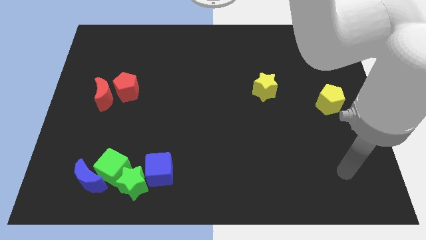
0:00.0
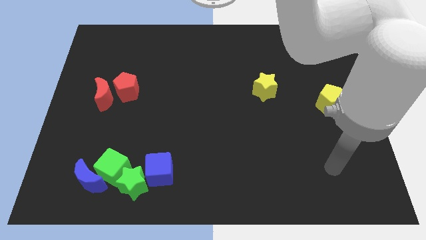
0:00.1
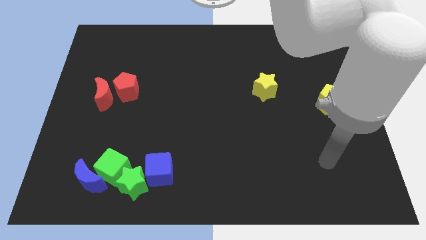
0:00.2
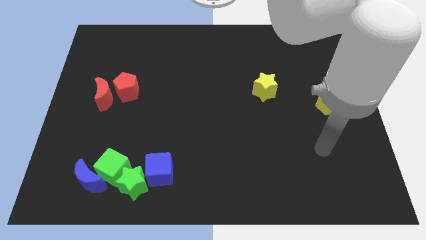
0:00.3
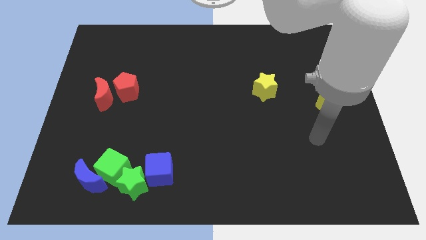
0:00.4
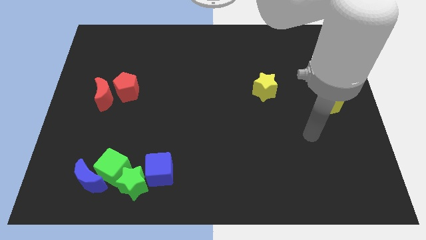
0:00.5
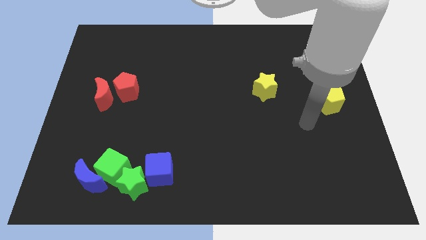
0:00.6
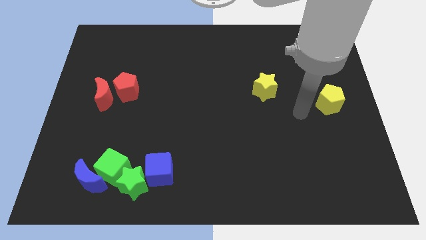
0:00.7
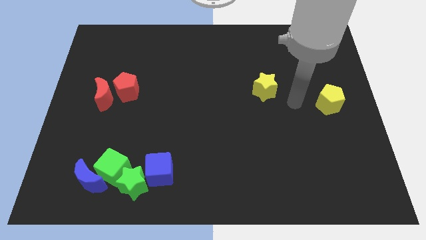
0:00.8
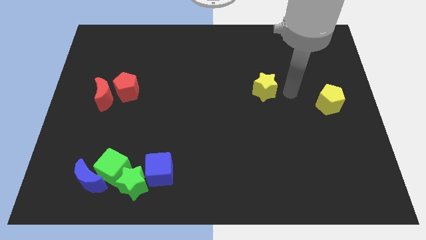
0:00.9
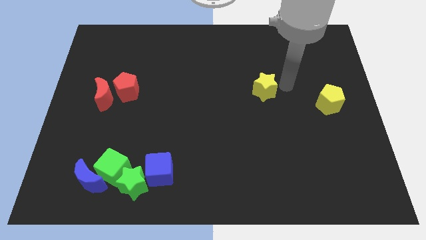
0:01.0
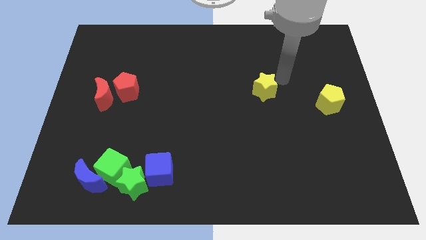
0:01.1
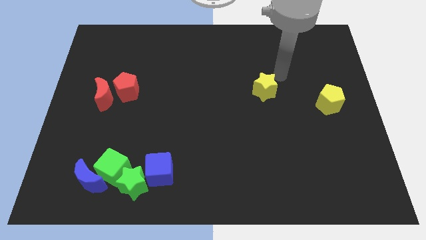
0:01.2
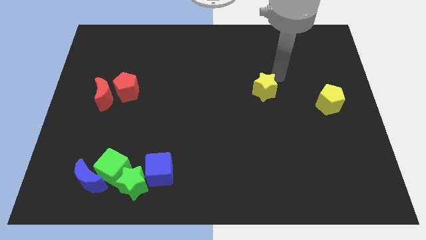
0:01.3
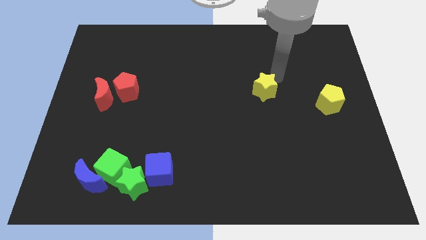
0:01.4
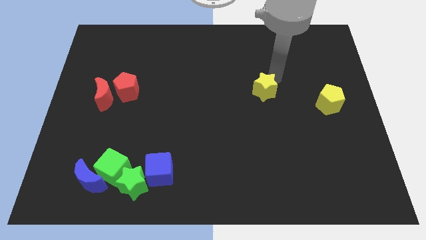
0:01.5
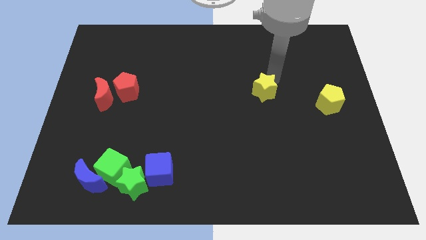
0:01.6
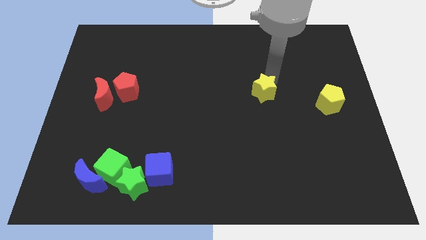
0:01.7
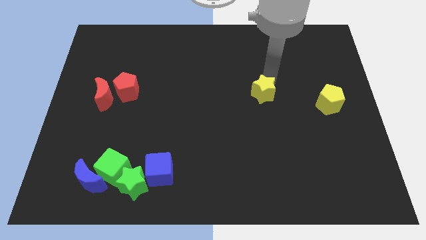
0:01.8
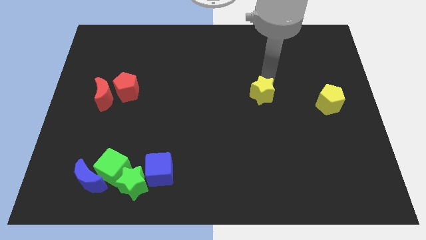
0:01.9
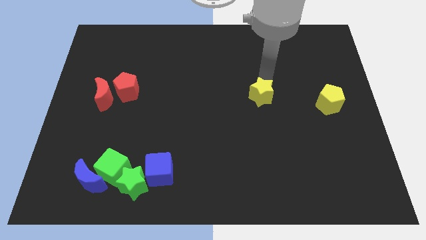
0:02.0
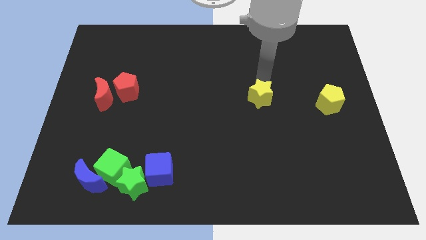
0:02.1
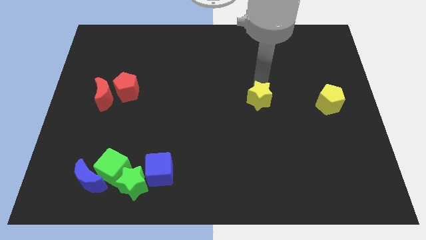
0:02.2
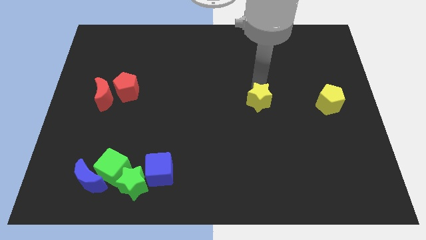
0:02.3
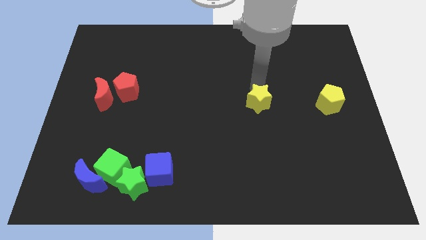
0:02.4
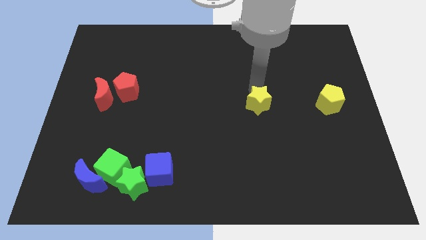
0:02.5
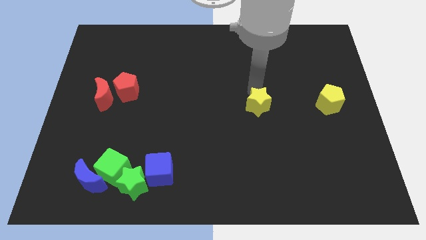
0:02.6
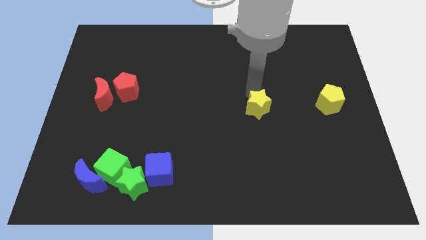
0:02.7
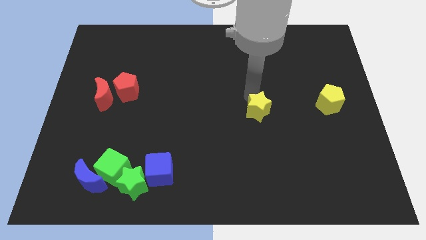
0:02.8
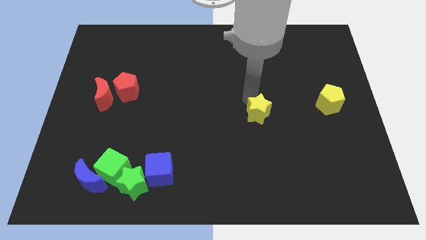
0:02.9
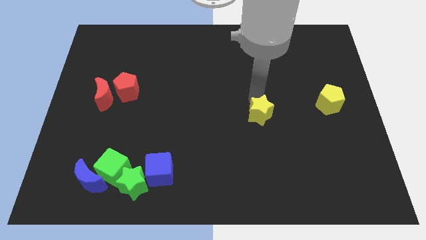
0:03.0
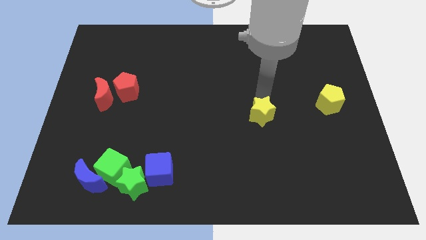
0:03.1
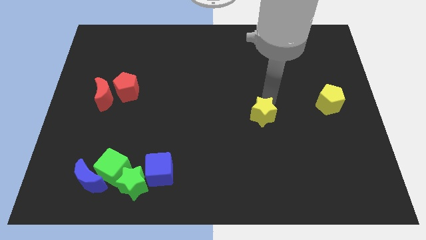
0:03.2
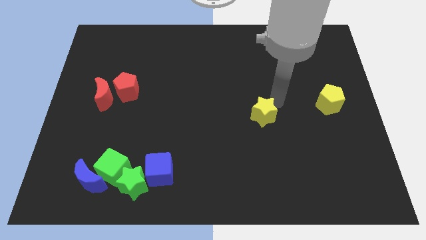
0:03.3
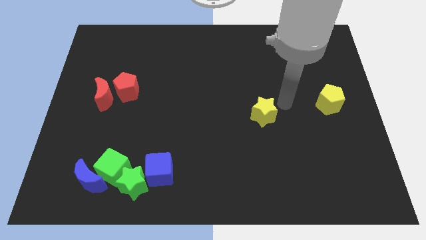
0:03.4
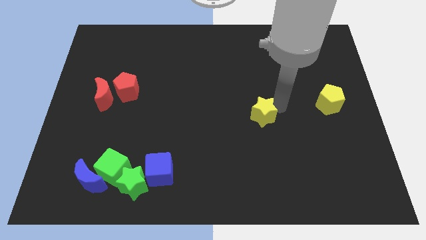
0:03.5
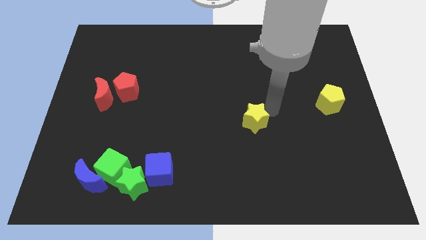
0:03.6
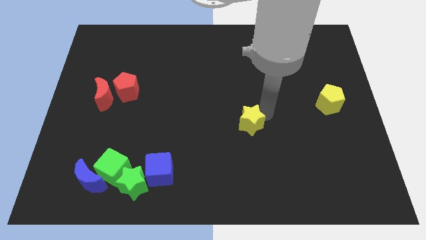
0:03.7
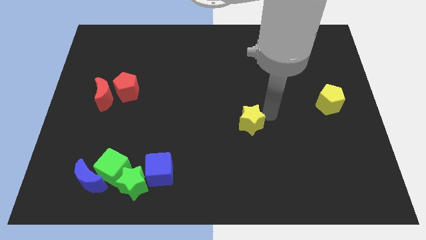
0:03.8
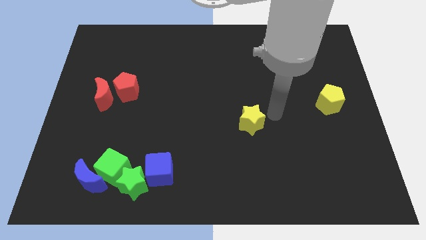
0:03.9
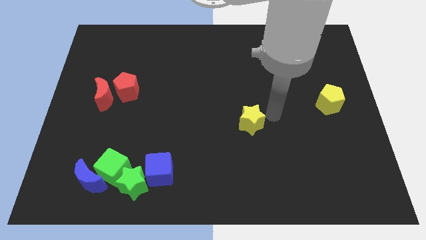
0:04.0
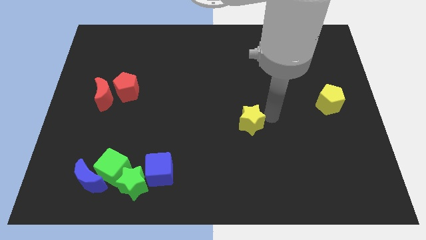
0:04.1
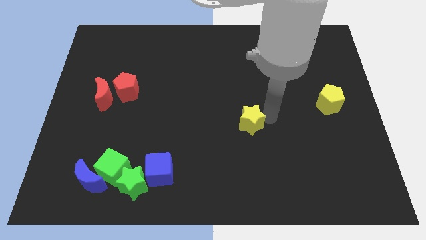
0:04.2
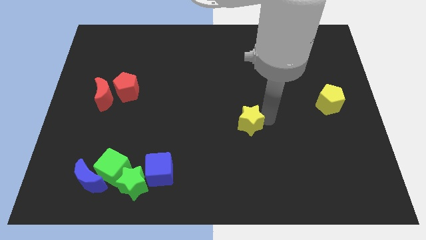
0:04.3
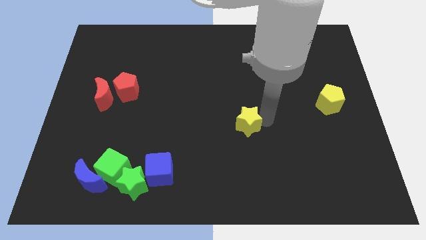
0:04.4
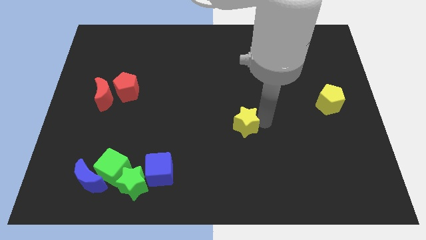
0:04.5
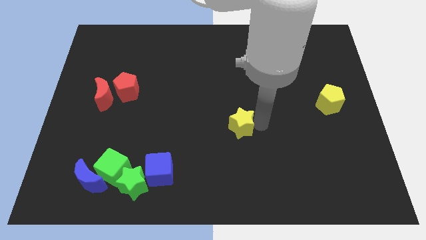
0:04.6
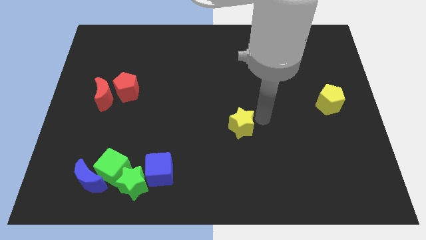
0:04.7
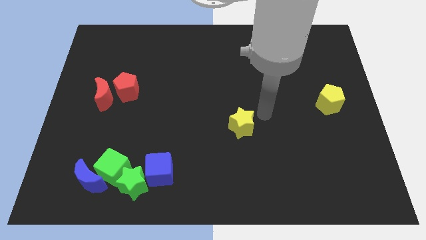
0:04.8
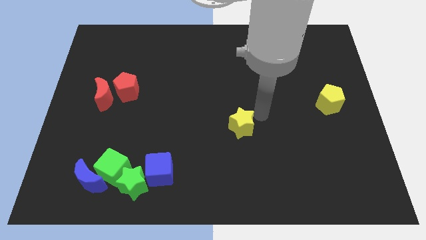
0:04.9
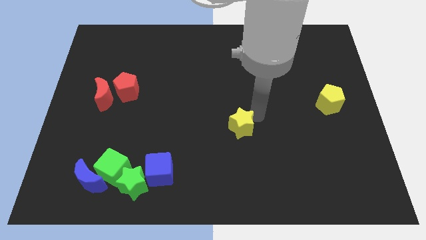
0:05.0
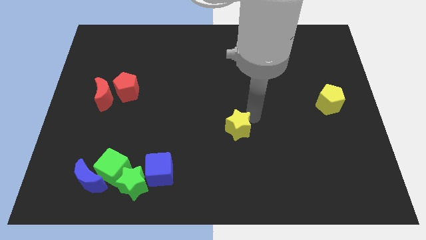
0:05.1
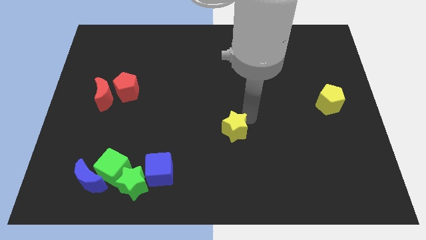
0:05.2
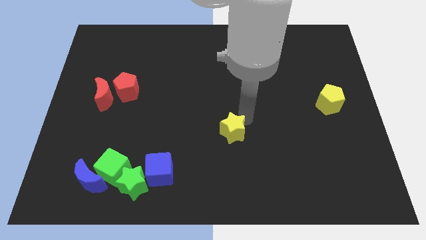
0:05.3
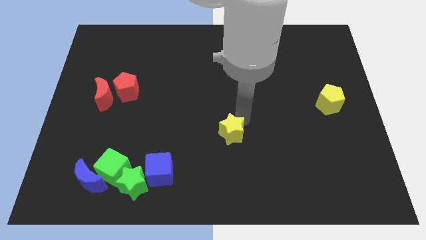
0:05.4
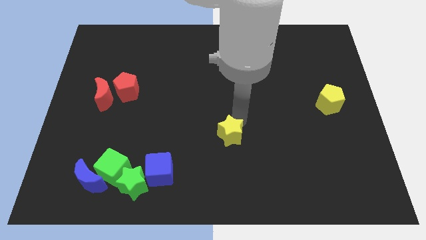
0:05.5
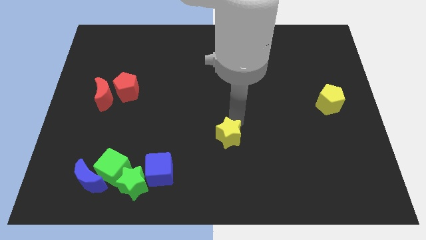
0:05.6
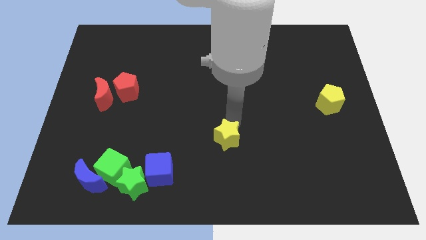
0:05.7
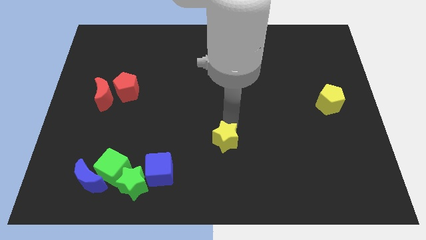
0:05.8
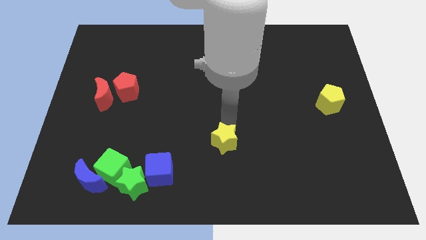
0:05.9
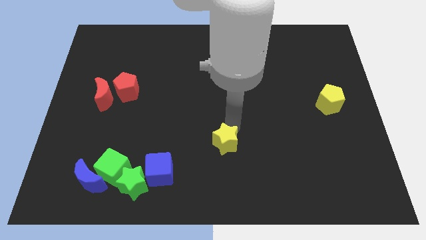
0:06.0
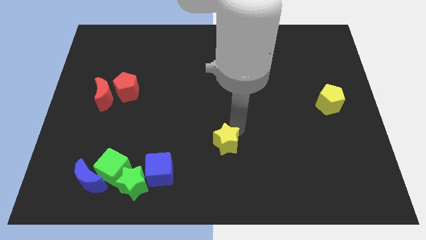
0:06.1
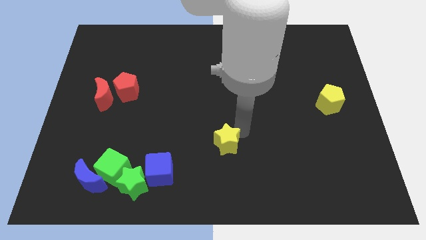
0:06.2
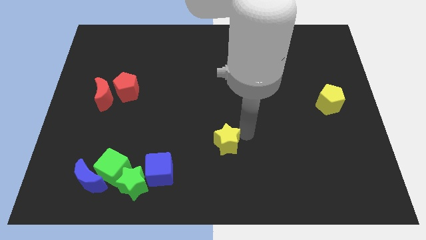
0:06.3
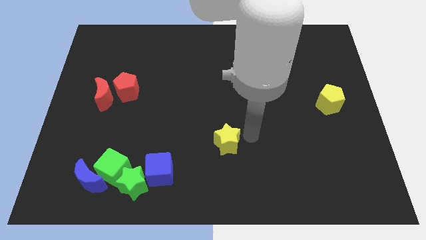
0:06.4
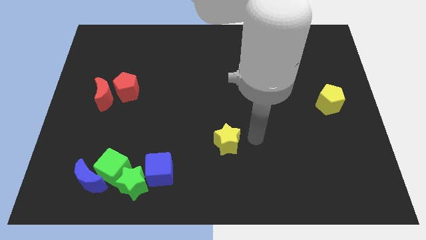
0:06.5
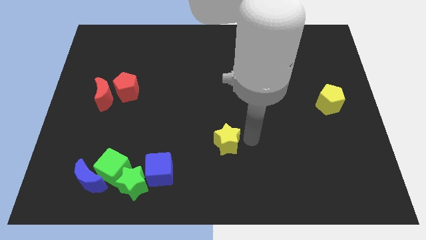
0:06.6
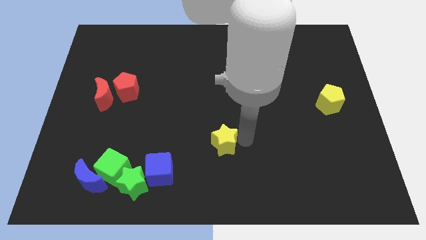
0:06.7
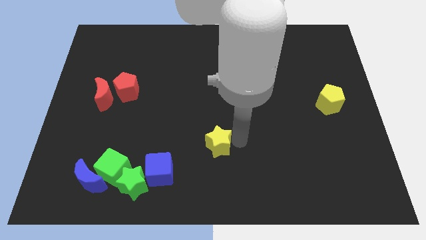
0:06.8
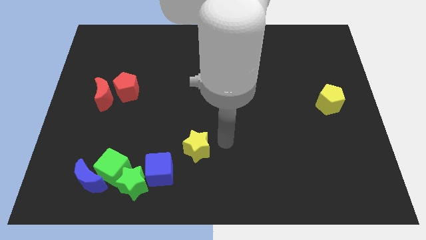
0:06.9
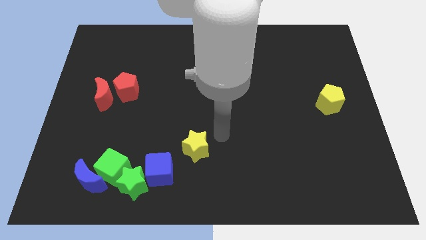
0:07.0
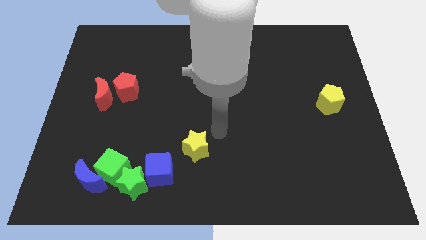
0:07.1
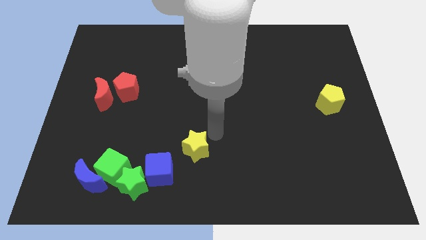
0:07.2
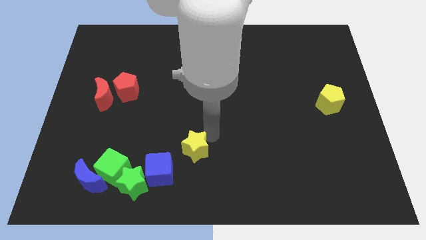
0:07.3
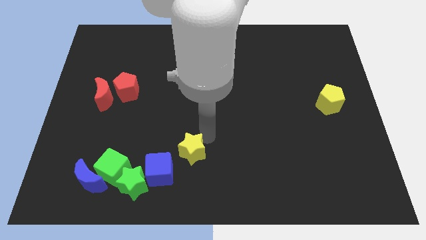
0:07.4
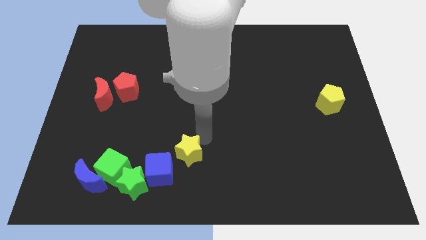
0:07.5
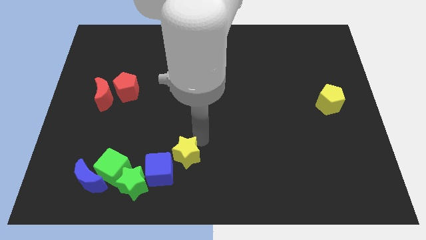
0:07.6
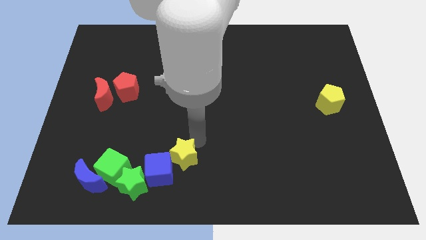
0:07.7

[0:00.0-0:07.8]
move the yellow star to the right side of the green cube
